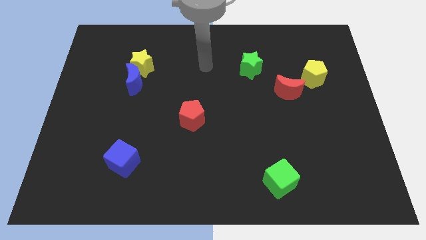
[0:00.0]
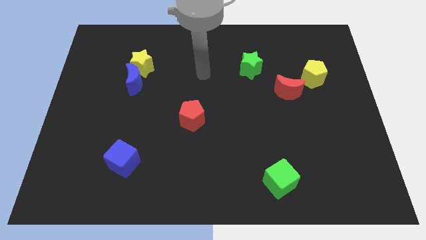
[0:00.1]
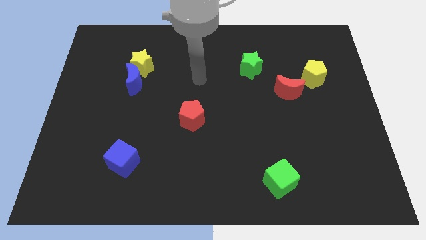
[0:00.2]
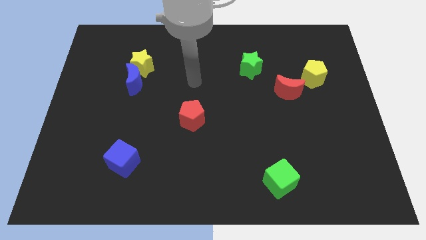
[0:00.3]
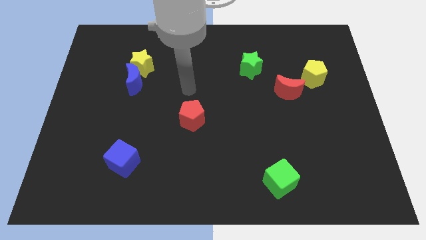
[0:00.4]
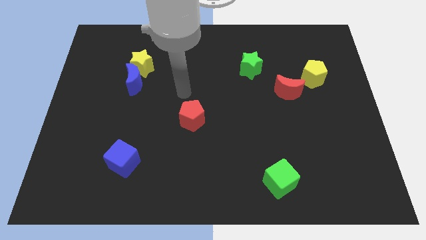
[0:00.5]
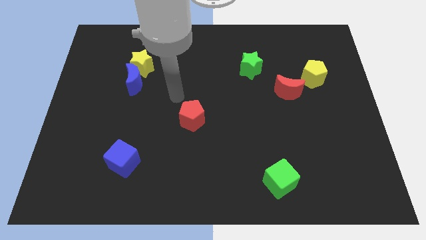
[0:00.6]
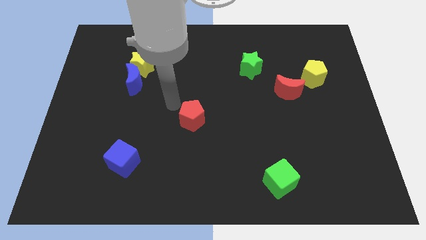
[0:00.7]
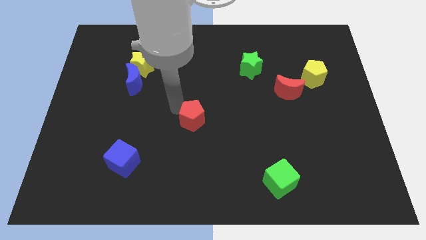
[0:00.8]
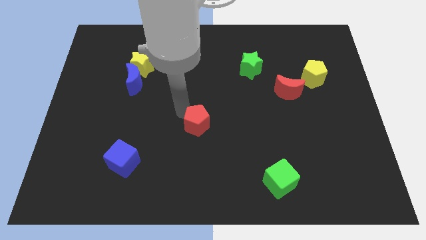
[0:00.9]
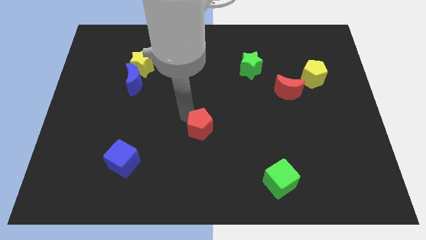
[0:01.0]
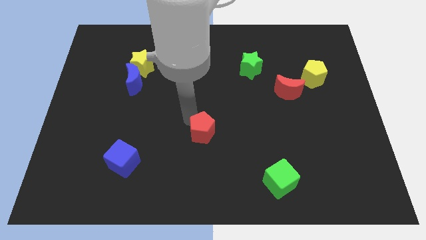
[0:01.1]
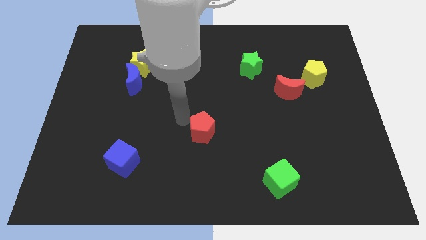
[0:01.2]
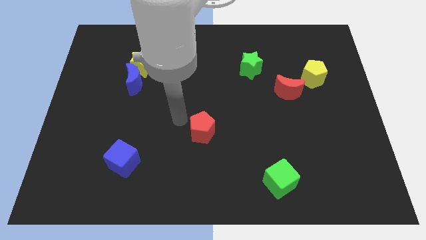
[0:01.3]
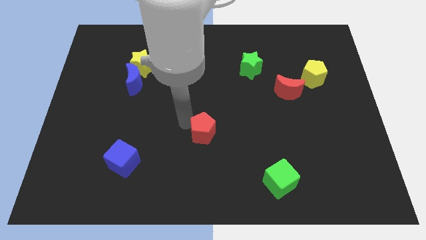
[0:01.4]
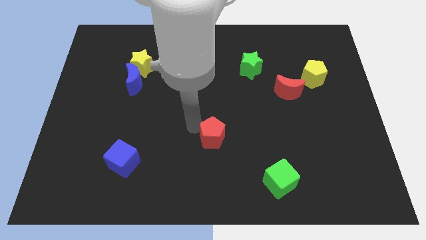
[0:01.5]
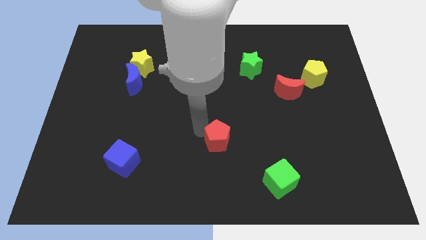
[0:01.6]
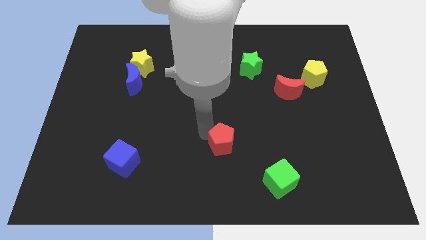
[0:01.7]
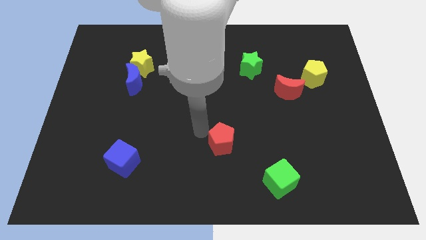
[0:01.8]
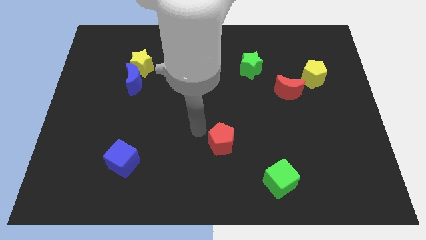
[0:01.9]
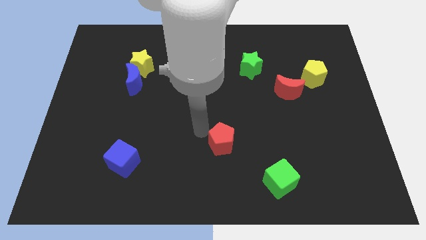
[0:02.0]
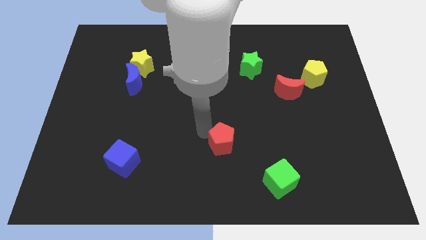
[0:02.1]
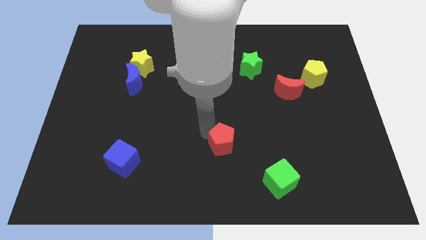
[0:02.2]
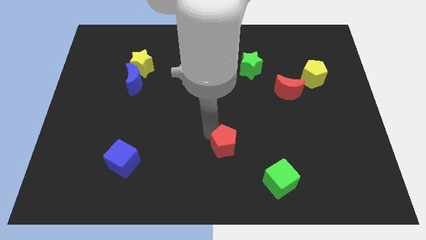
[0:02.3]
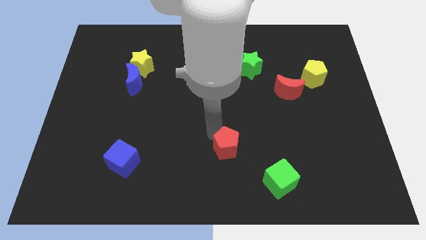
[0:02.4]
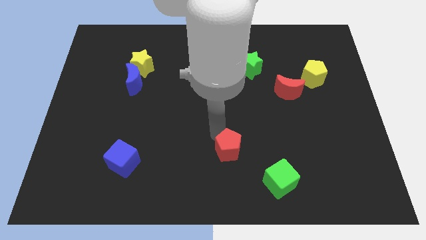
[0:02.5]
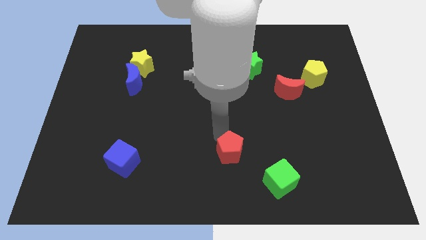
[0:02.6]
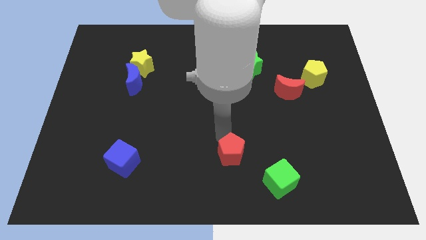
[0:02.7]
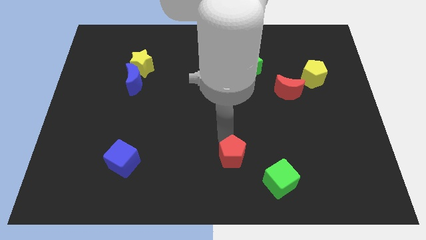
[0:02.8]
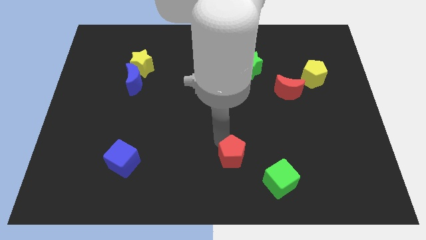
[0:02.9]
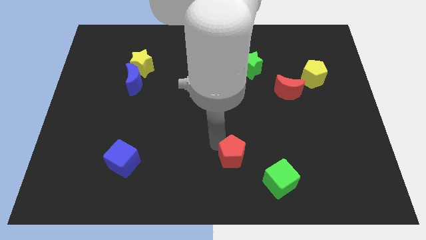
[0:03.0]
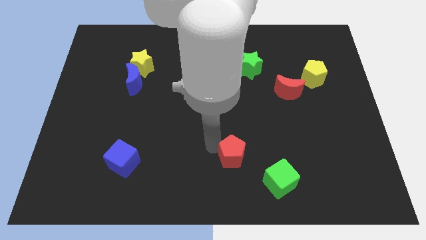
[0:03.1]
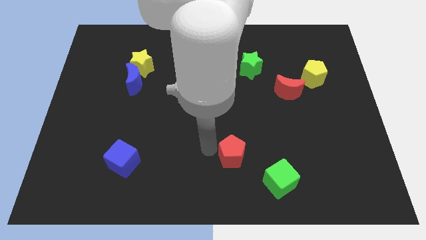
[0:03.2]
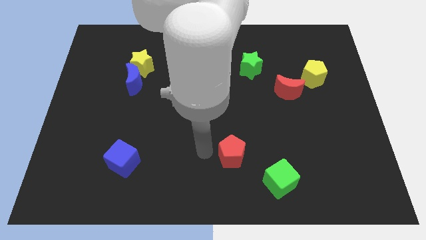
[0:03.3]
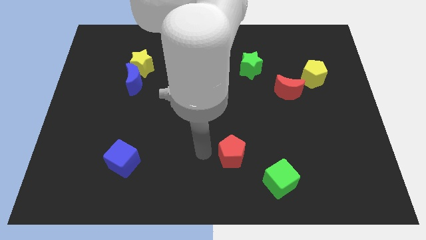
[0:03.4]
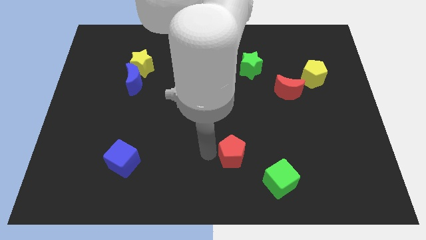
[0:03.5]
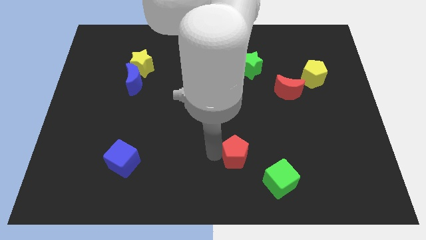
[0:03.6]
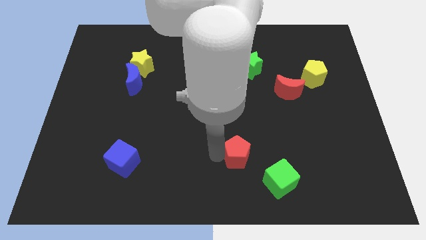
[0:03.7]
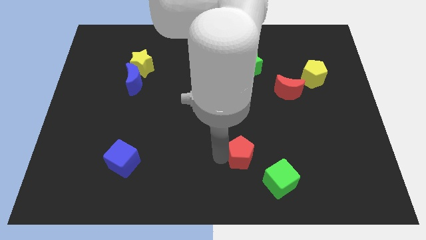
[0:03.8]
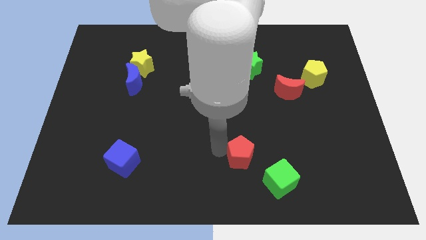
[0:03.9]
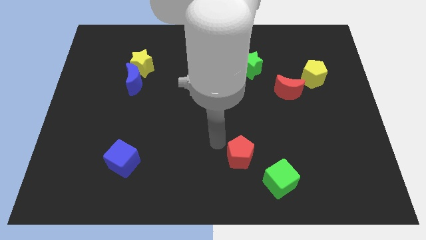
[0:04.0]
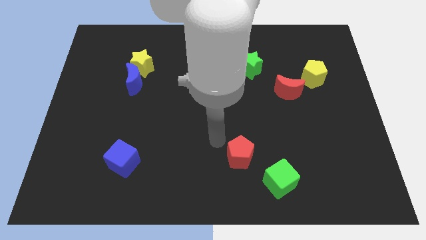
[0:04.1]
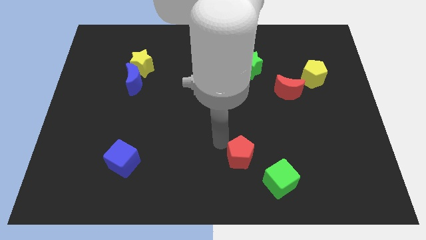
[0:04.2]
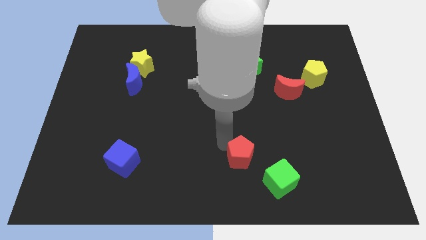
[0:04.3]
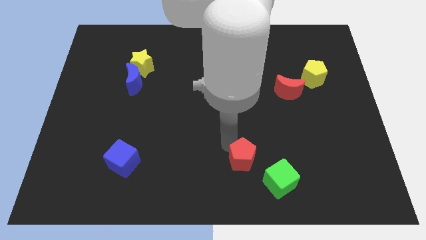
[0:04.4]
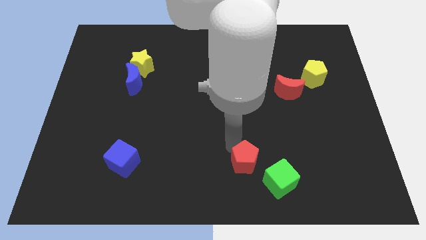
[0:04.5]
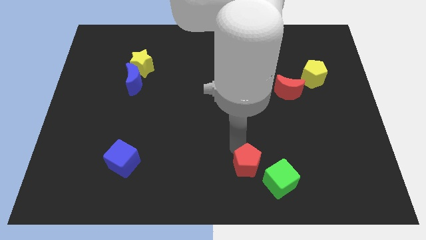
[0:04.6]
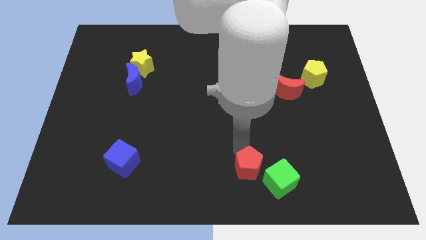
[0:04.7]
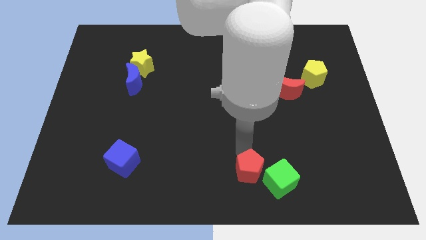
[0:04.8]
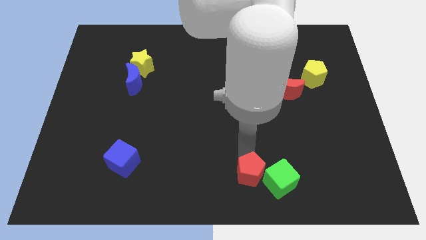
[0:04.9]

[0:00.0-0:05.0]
push the red pentagon next to the green cube

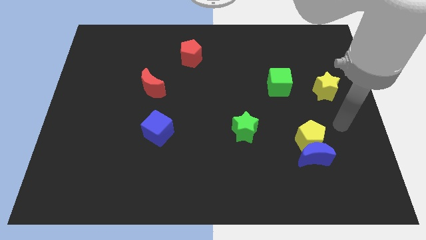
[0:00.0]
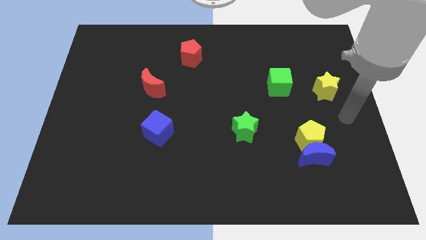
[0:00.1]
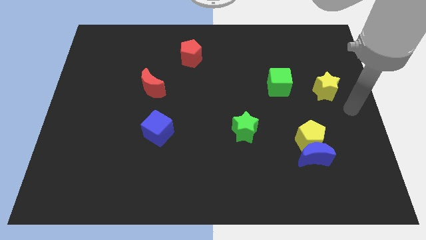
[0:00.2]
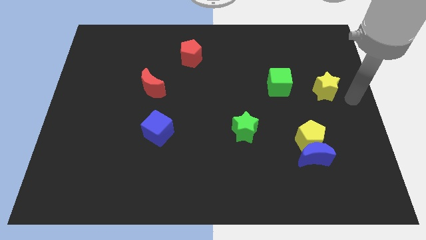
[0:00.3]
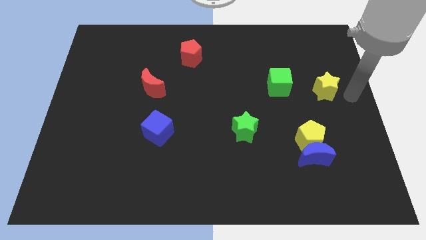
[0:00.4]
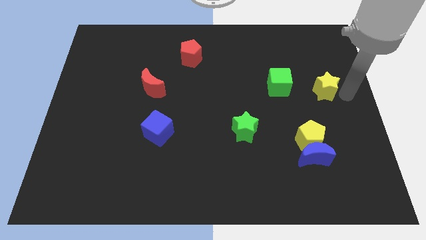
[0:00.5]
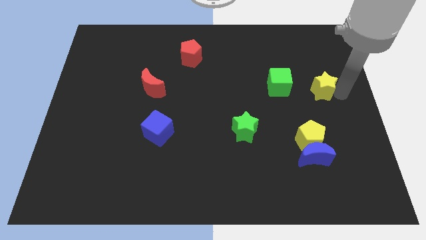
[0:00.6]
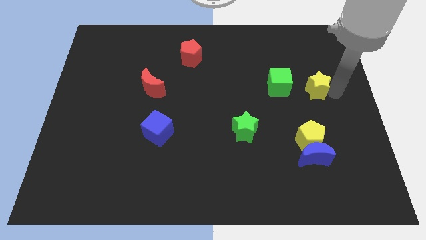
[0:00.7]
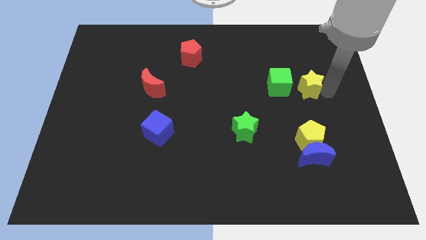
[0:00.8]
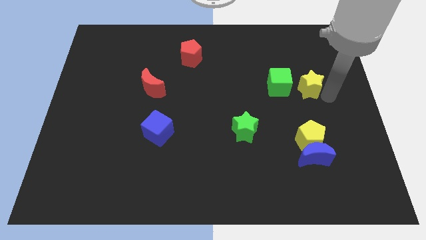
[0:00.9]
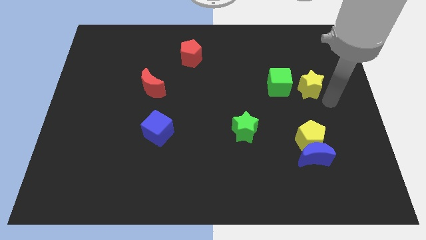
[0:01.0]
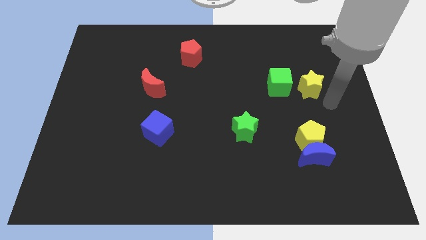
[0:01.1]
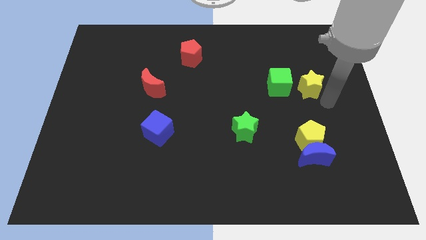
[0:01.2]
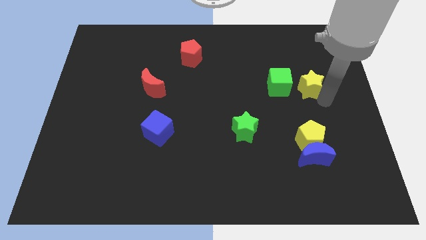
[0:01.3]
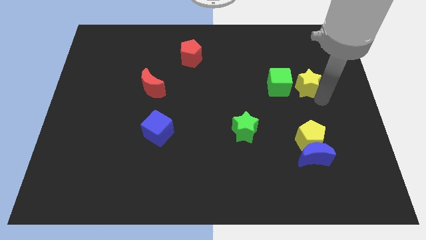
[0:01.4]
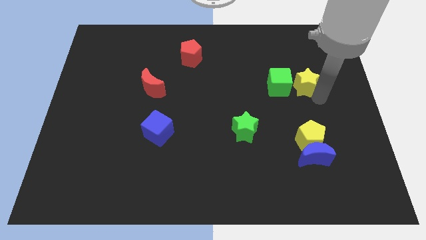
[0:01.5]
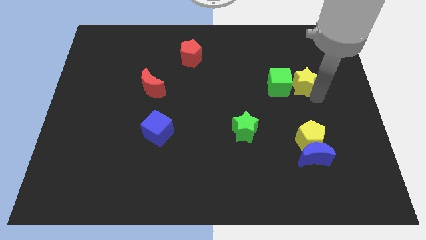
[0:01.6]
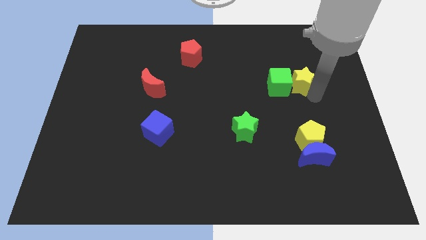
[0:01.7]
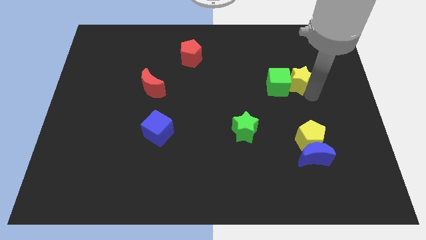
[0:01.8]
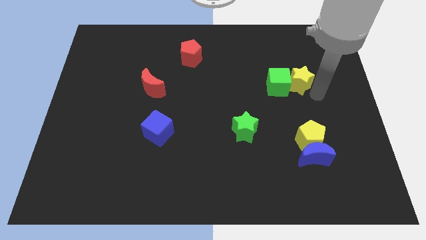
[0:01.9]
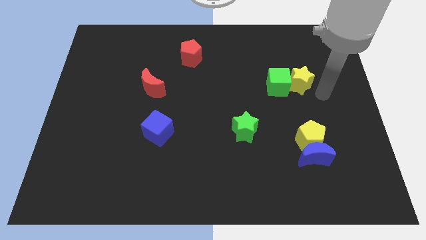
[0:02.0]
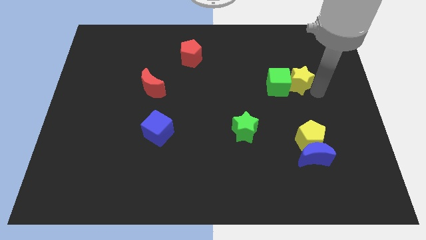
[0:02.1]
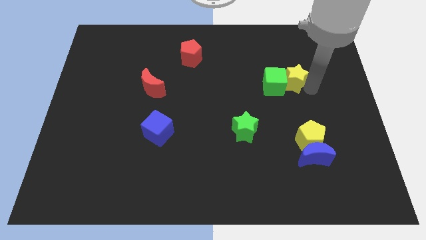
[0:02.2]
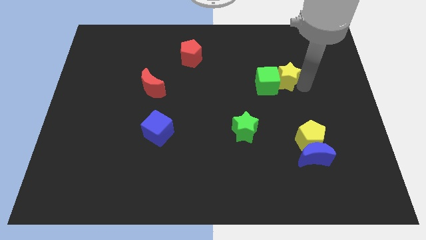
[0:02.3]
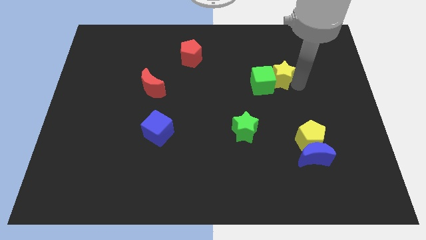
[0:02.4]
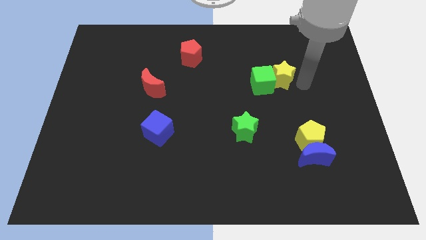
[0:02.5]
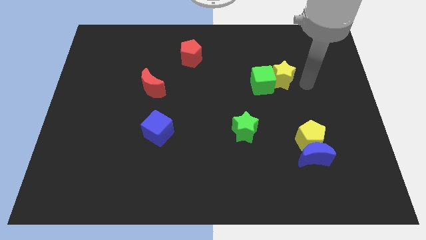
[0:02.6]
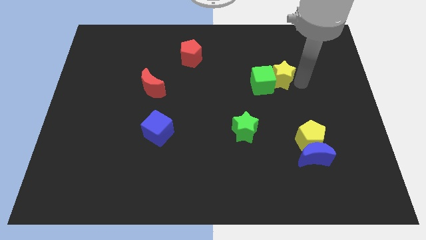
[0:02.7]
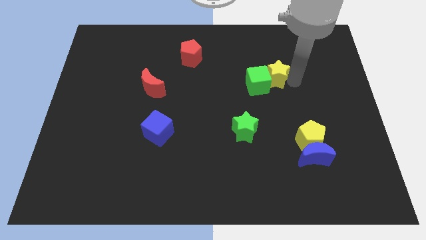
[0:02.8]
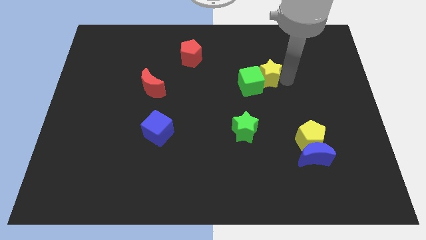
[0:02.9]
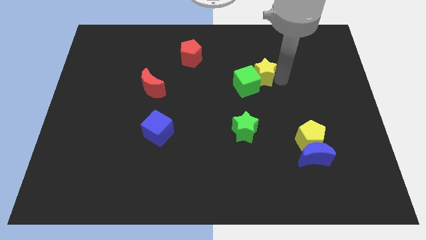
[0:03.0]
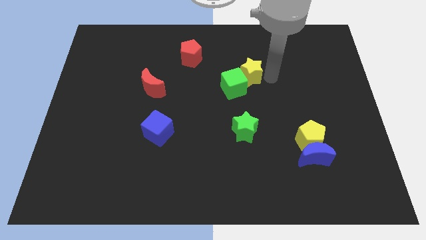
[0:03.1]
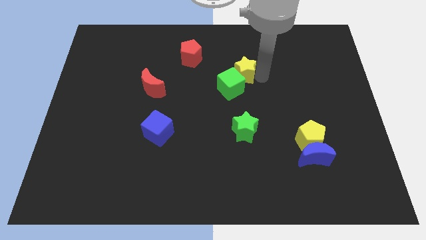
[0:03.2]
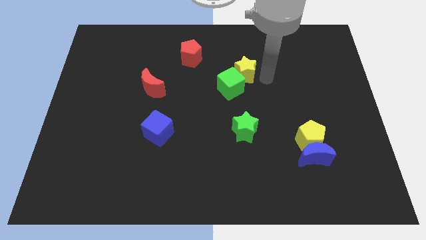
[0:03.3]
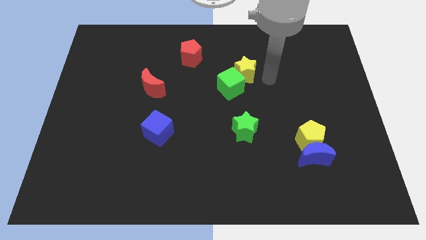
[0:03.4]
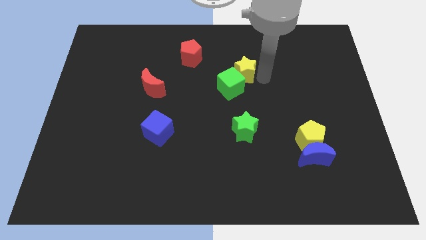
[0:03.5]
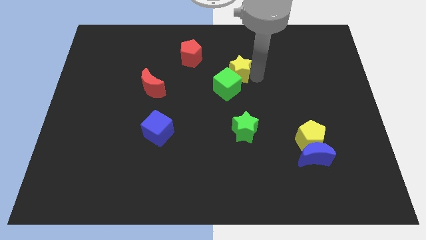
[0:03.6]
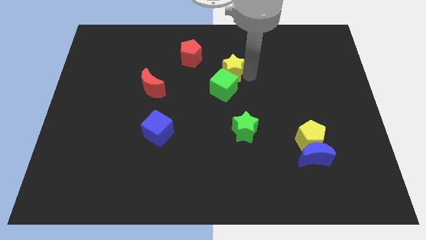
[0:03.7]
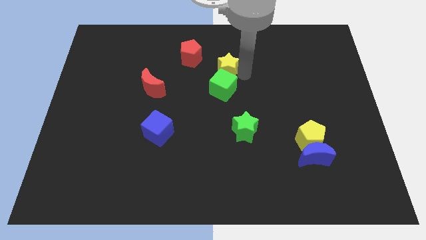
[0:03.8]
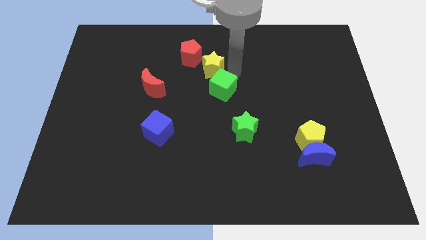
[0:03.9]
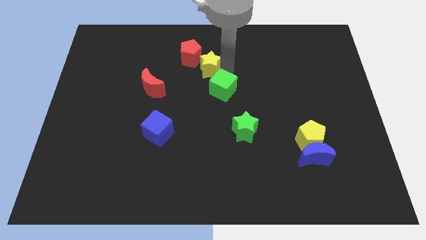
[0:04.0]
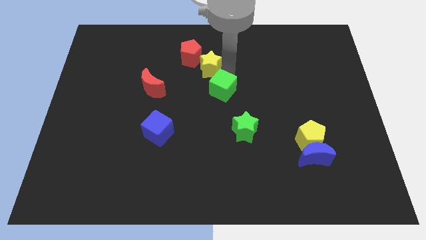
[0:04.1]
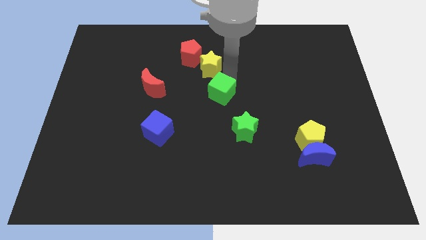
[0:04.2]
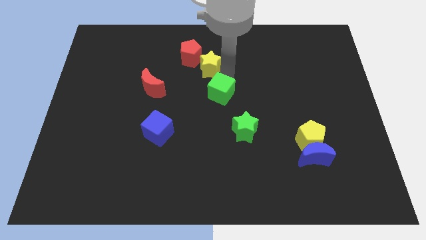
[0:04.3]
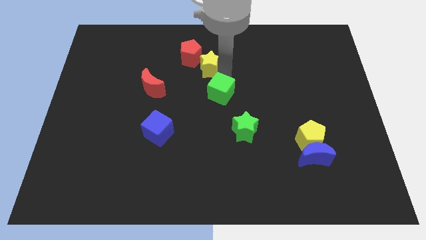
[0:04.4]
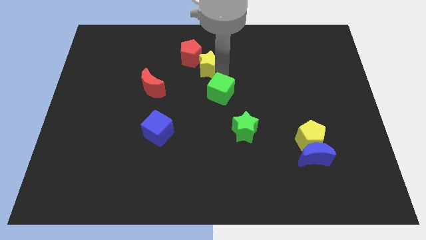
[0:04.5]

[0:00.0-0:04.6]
push the yellow star towards the red pentagon
